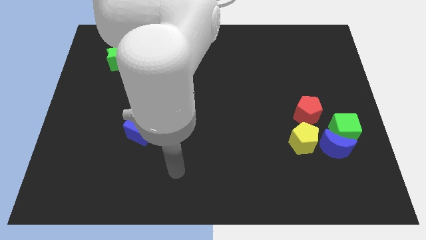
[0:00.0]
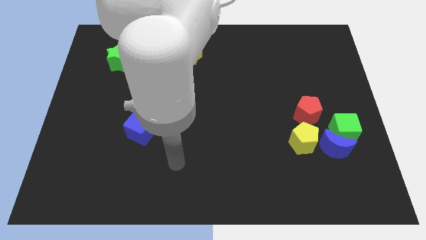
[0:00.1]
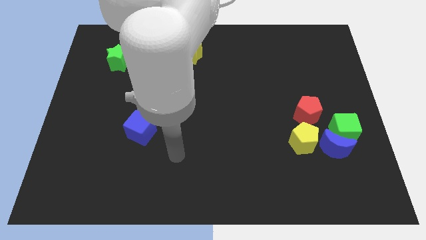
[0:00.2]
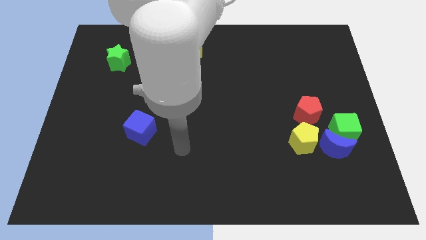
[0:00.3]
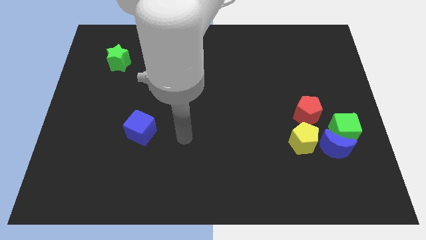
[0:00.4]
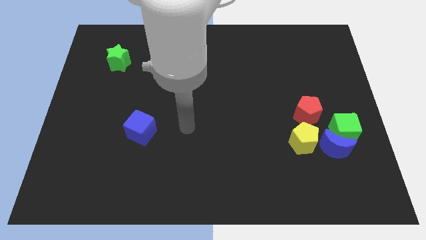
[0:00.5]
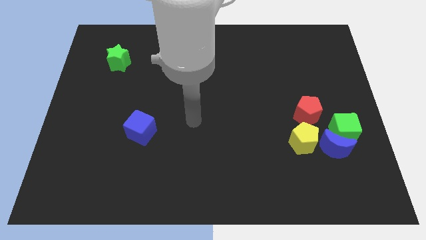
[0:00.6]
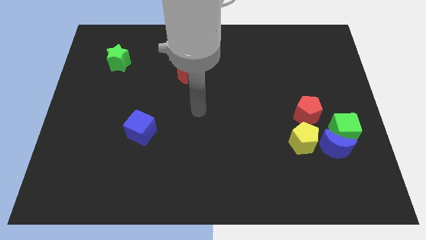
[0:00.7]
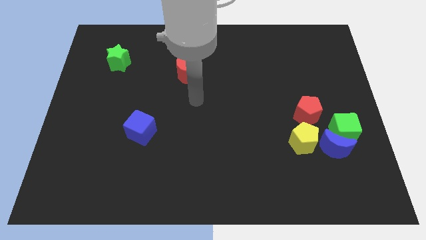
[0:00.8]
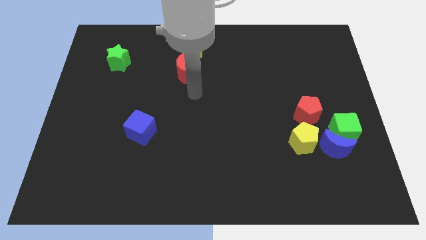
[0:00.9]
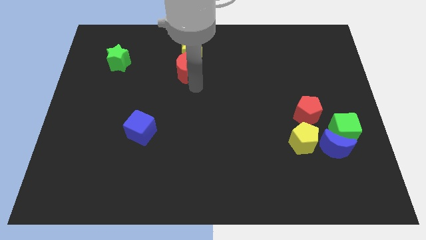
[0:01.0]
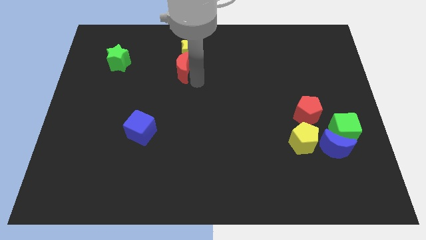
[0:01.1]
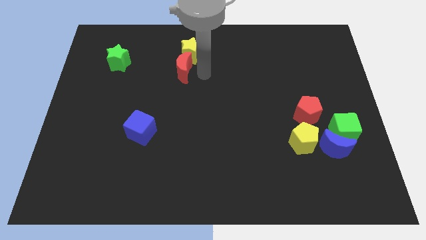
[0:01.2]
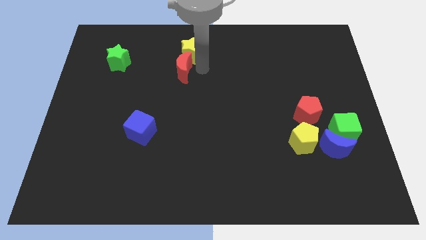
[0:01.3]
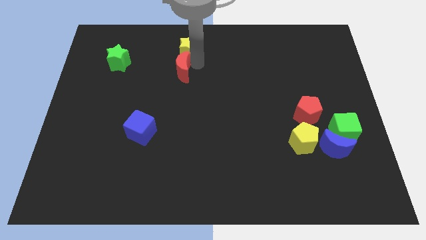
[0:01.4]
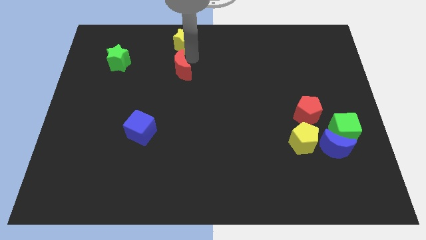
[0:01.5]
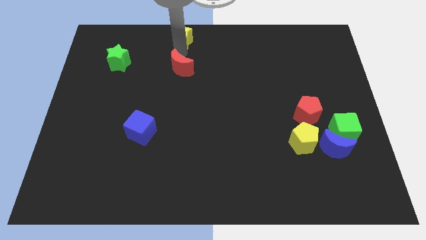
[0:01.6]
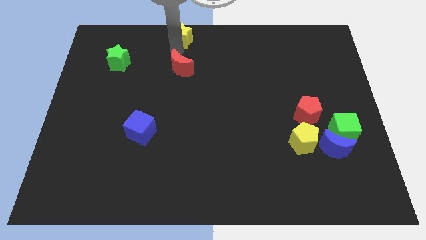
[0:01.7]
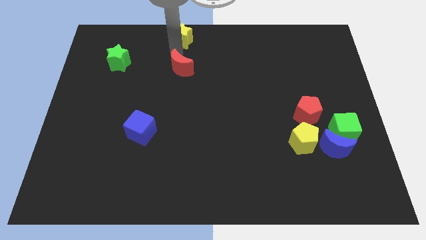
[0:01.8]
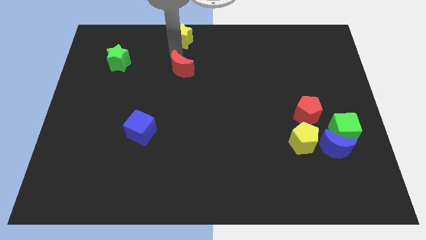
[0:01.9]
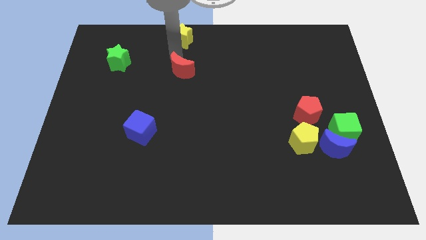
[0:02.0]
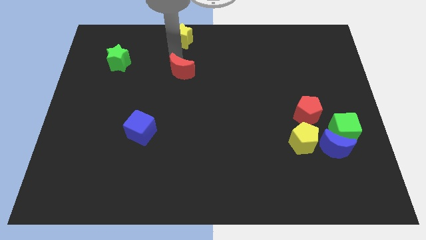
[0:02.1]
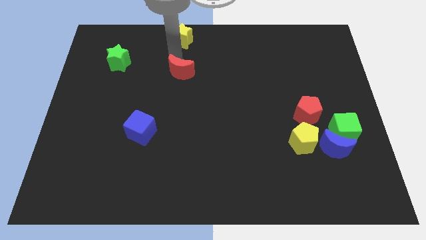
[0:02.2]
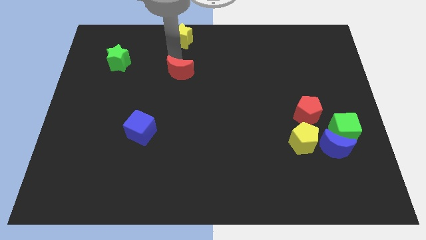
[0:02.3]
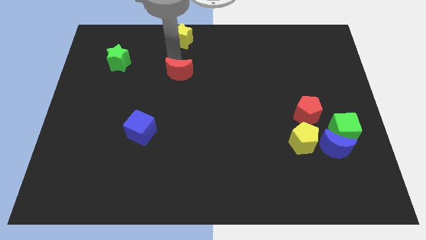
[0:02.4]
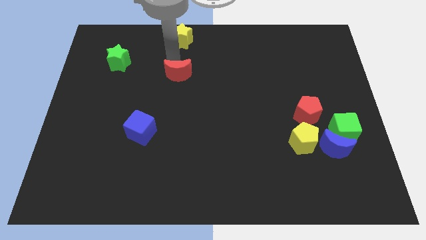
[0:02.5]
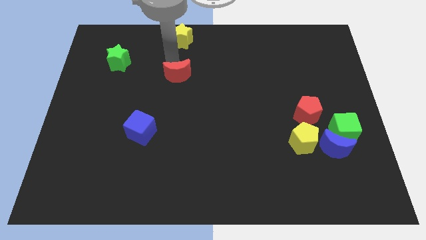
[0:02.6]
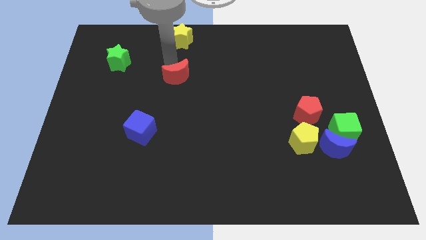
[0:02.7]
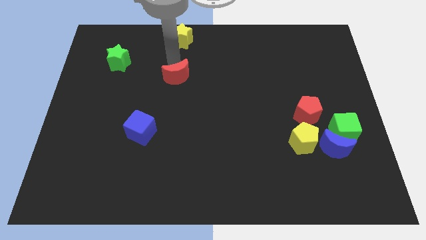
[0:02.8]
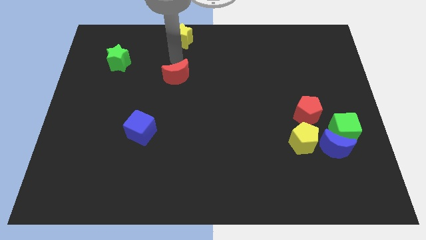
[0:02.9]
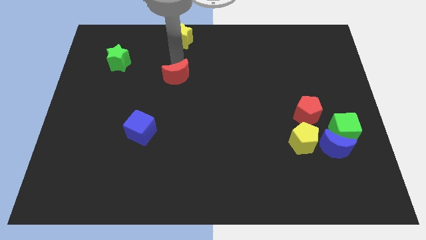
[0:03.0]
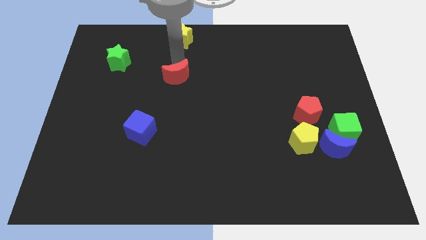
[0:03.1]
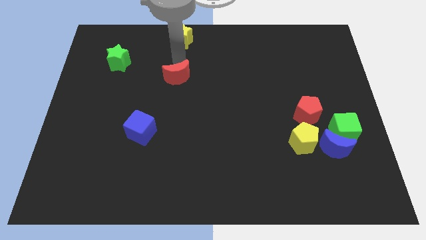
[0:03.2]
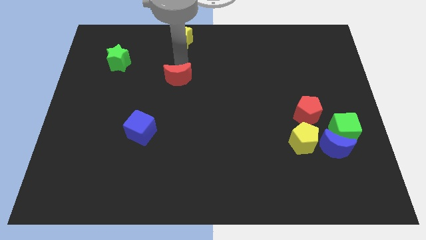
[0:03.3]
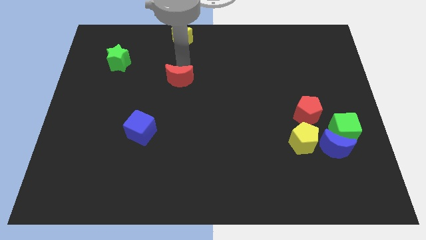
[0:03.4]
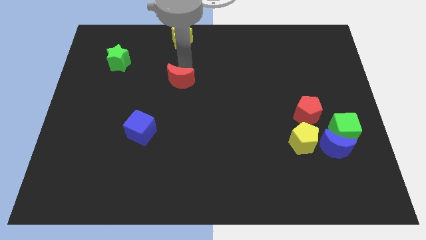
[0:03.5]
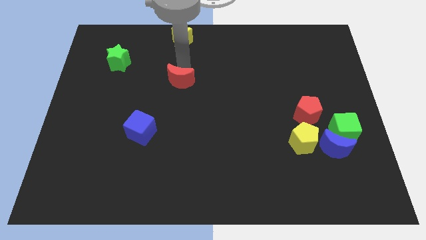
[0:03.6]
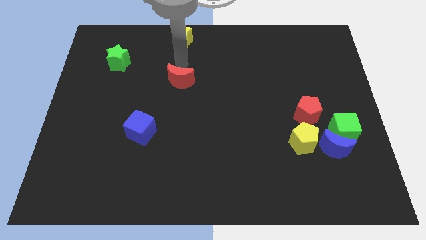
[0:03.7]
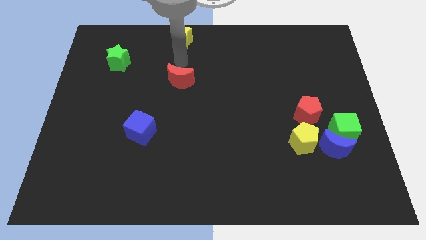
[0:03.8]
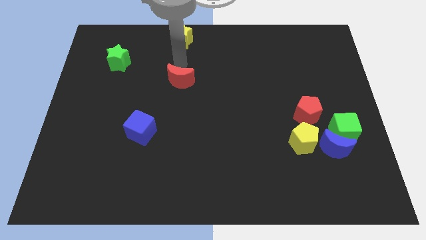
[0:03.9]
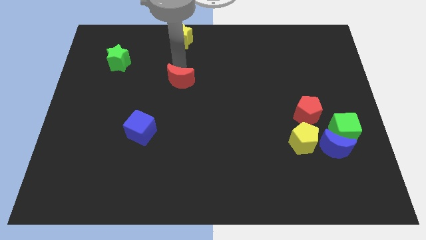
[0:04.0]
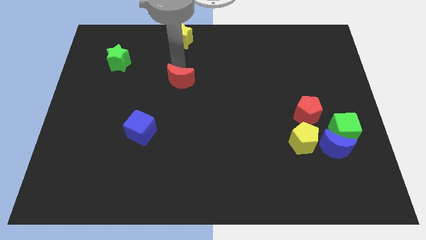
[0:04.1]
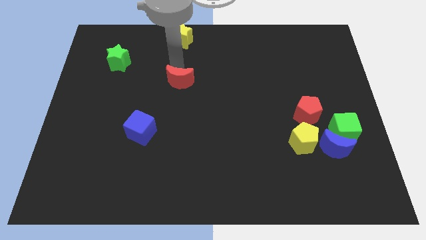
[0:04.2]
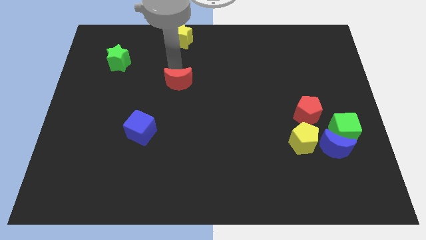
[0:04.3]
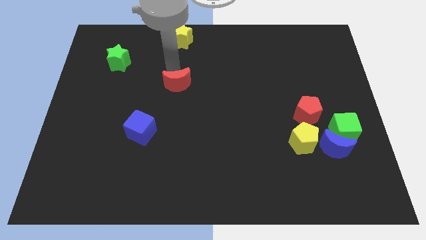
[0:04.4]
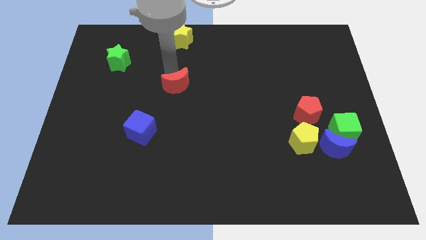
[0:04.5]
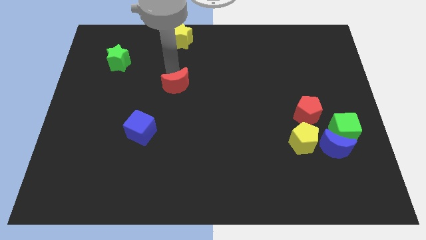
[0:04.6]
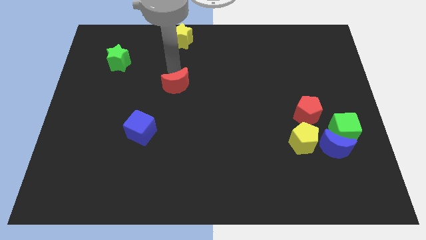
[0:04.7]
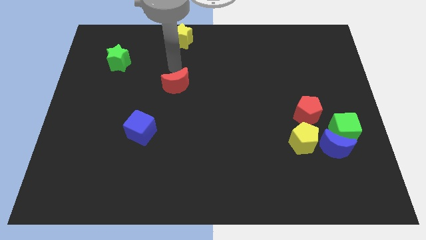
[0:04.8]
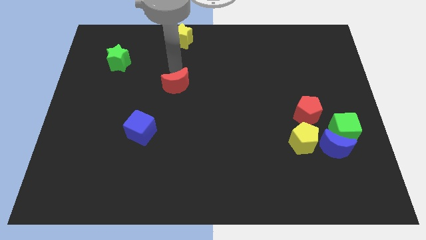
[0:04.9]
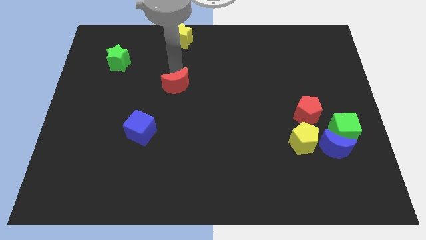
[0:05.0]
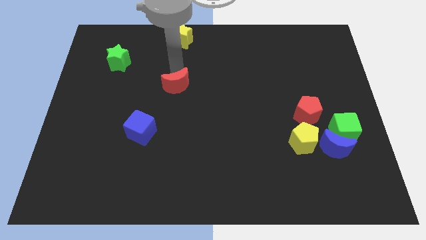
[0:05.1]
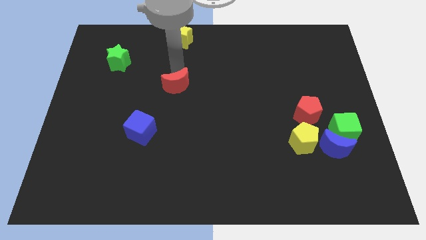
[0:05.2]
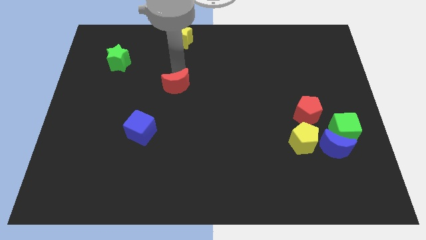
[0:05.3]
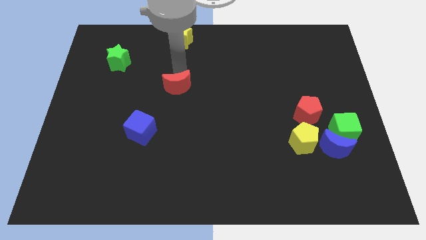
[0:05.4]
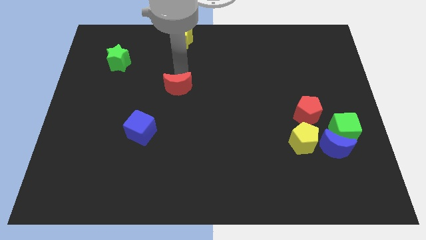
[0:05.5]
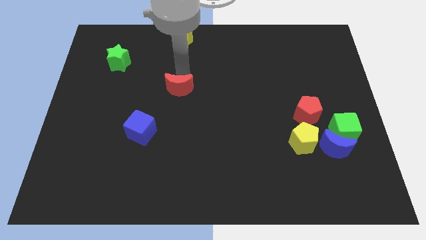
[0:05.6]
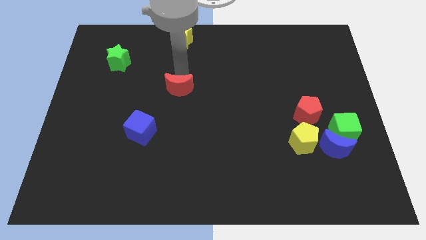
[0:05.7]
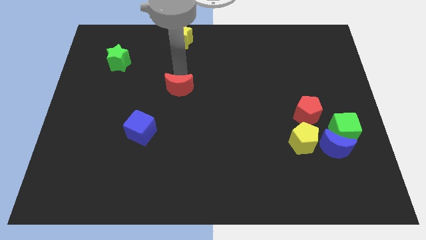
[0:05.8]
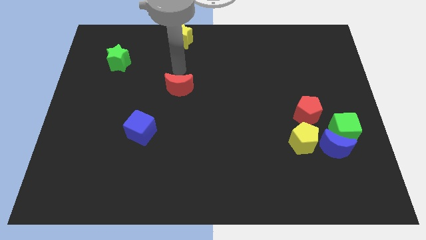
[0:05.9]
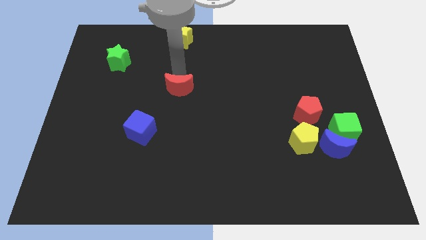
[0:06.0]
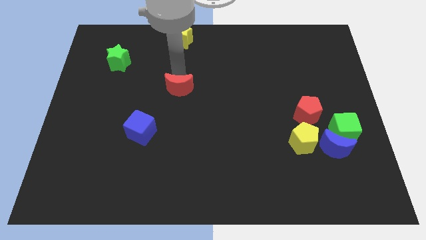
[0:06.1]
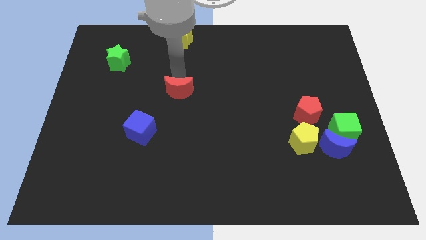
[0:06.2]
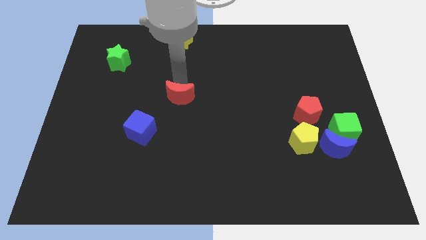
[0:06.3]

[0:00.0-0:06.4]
put the red moon to the top right of the blue cube
